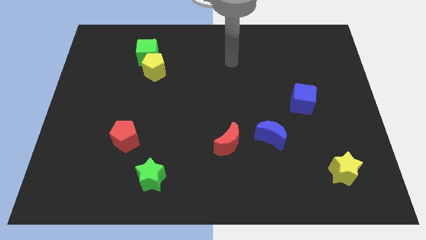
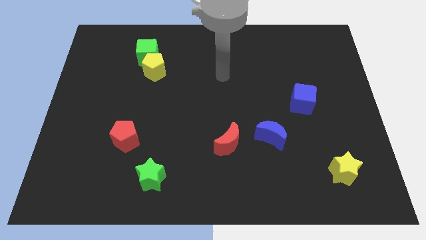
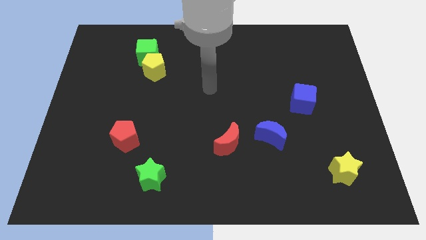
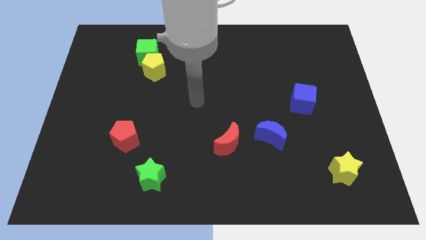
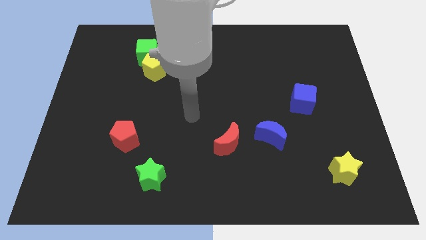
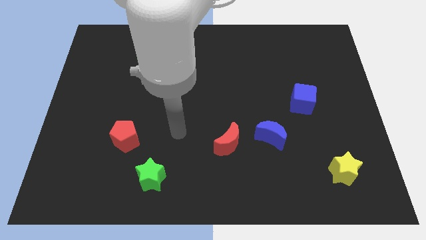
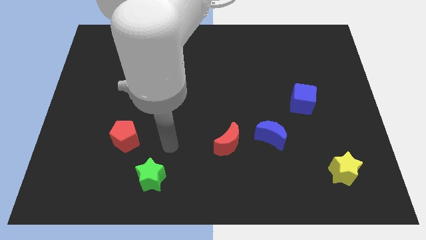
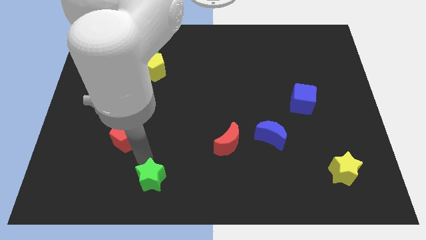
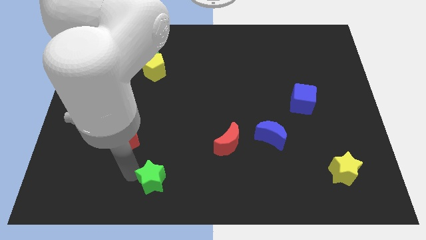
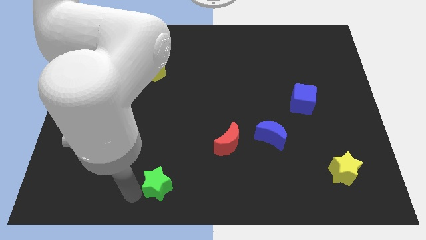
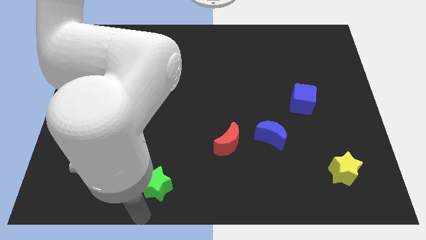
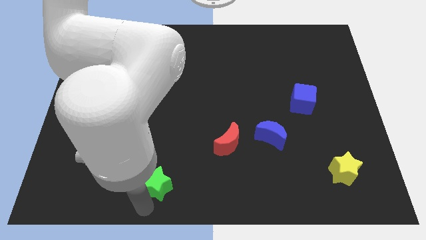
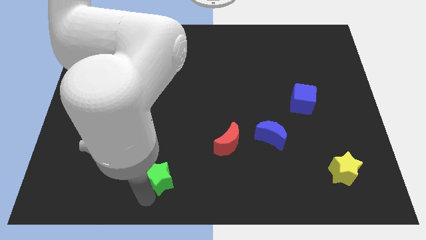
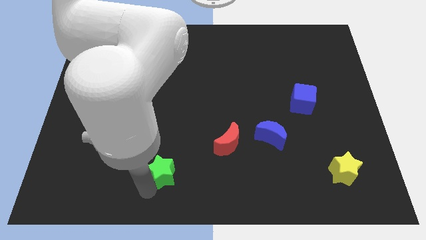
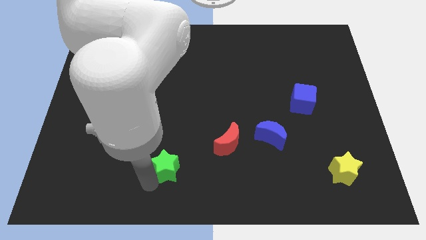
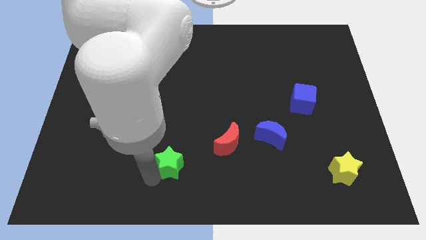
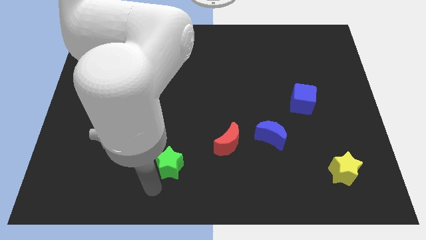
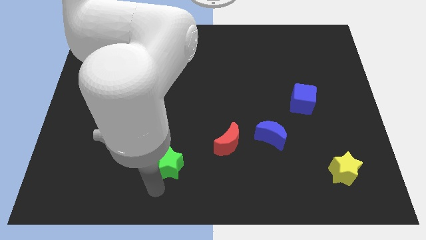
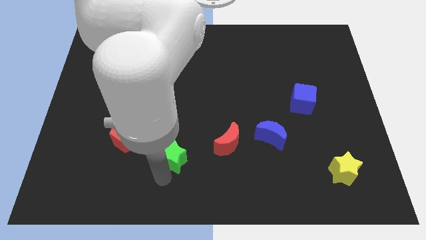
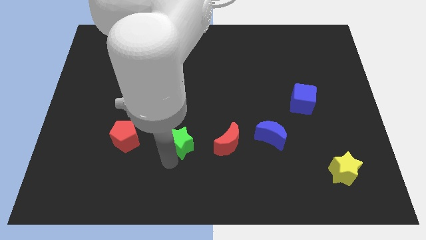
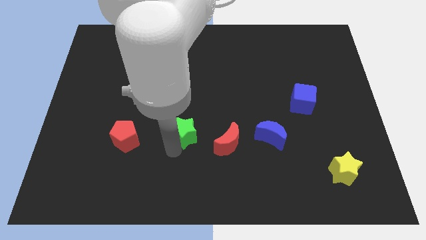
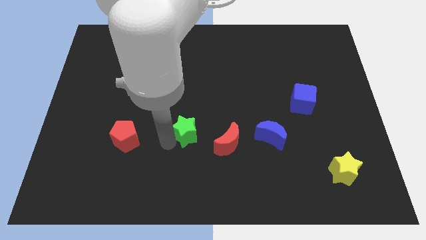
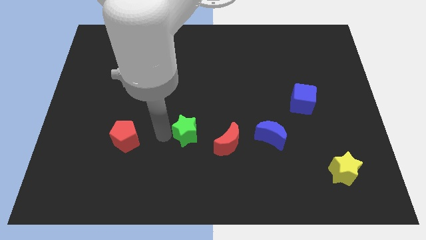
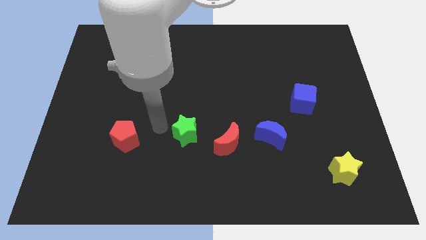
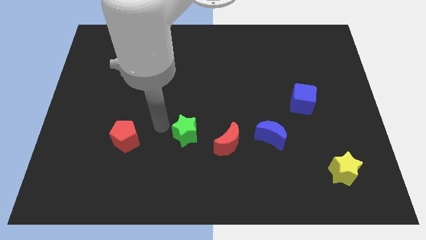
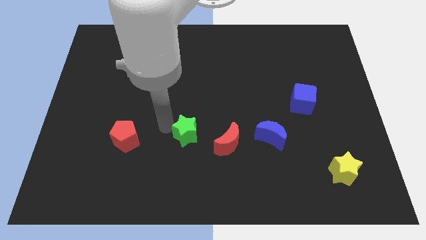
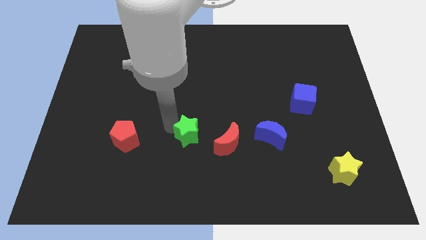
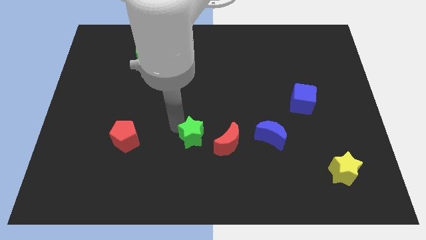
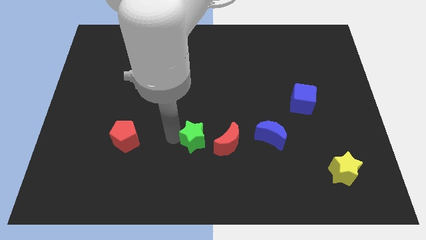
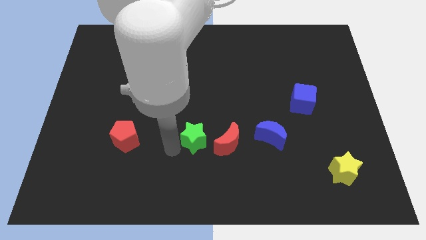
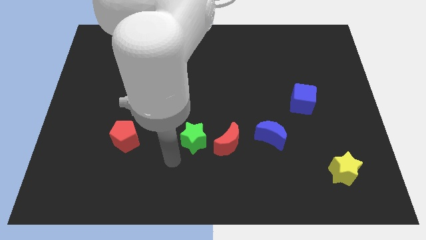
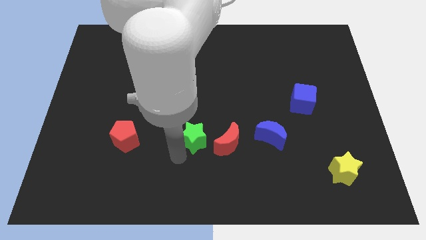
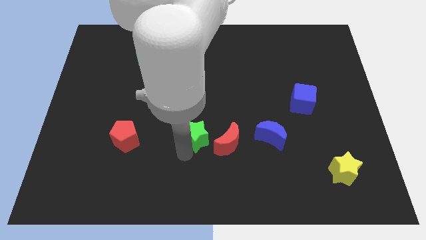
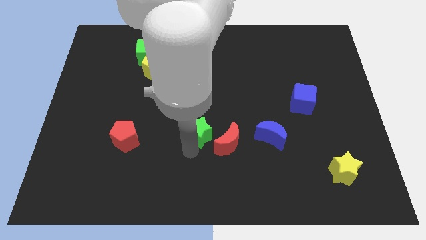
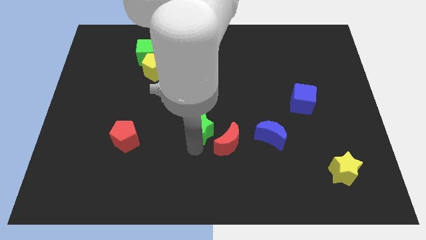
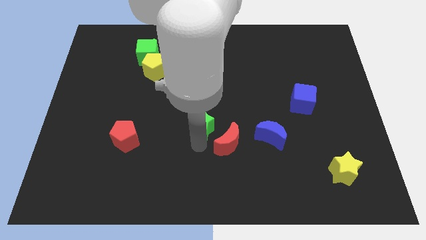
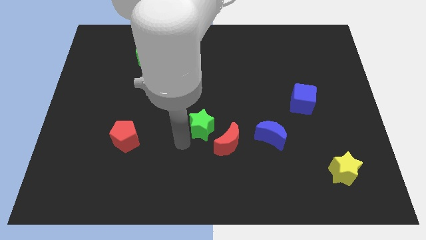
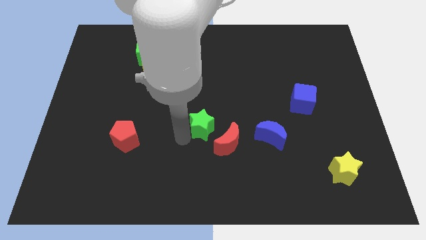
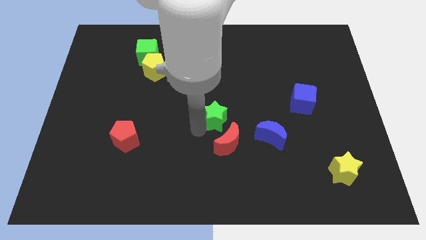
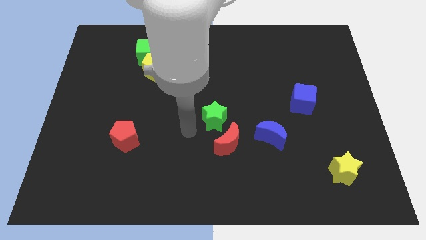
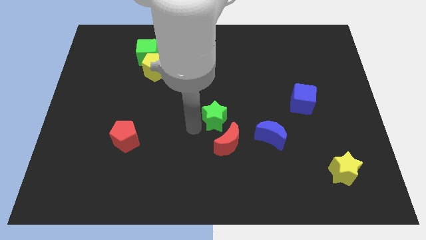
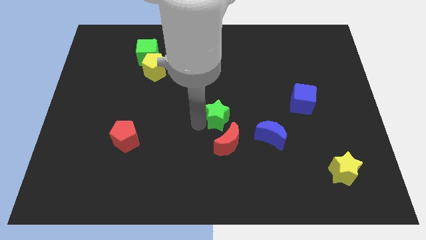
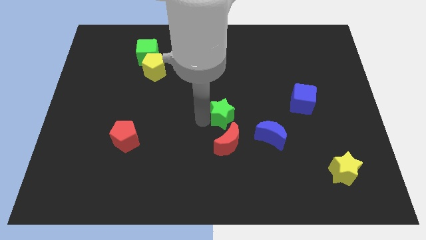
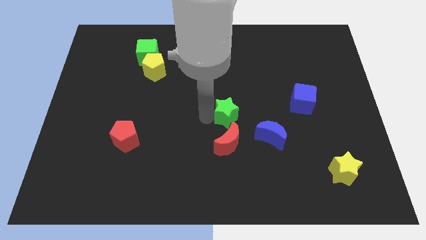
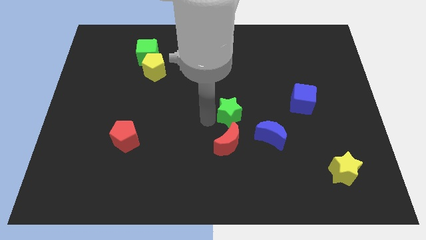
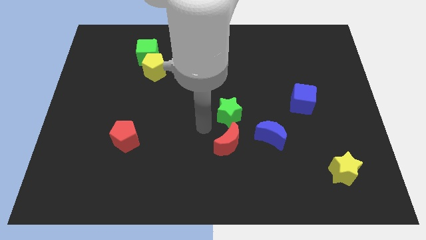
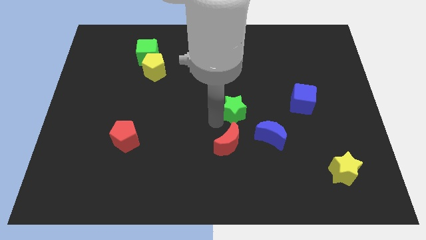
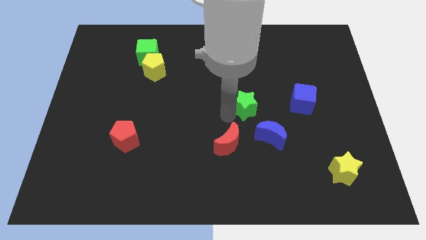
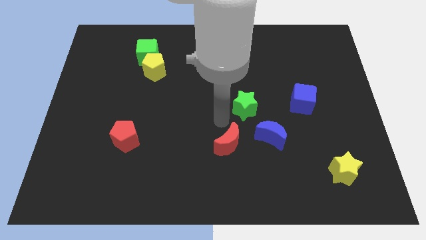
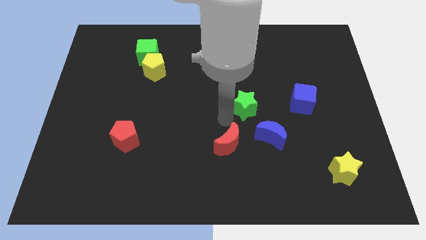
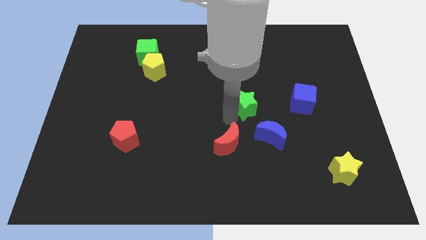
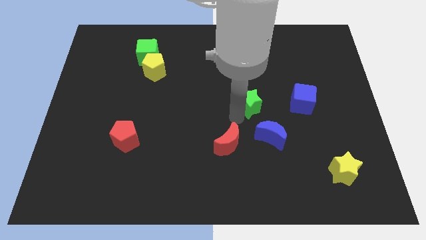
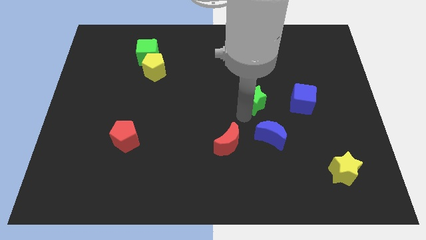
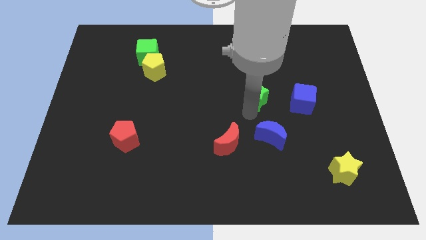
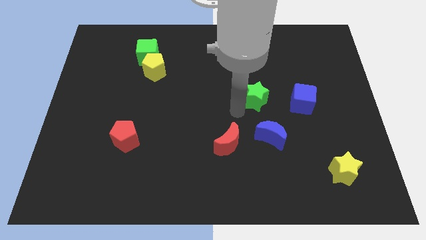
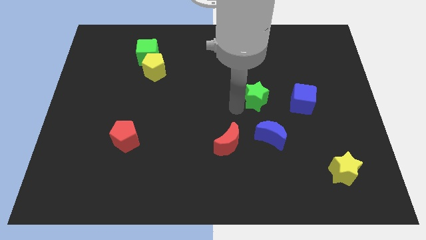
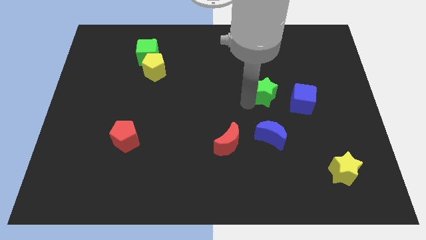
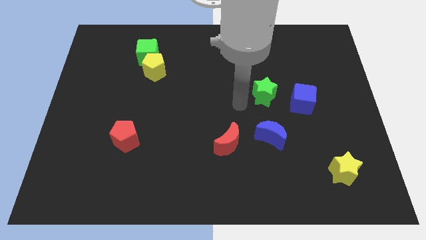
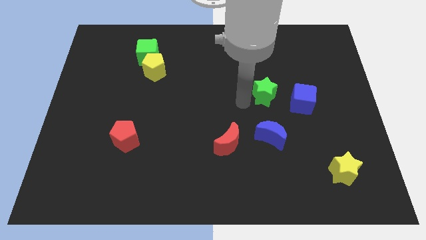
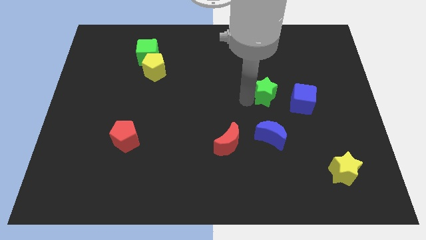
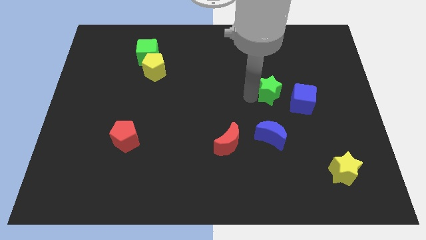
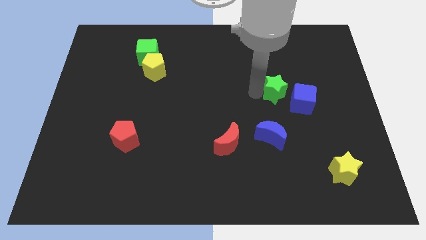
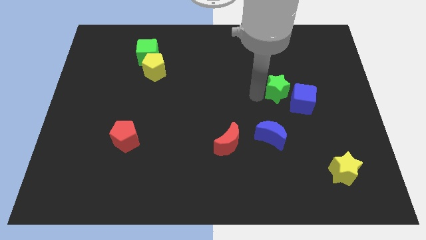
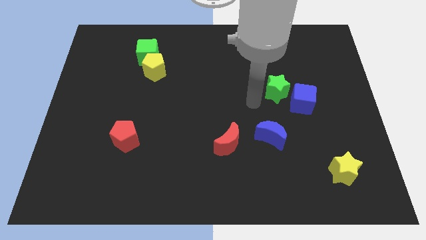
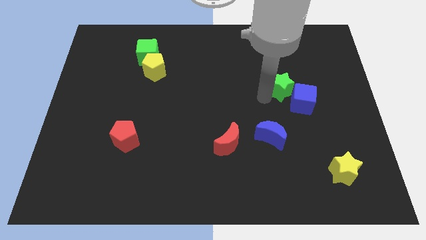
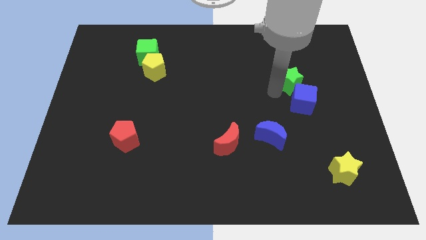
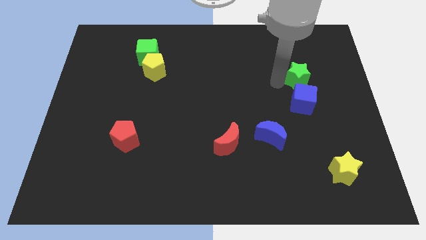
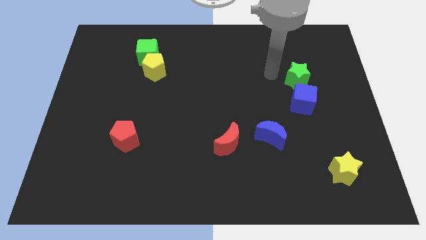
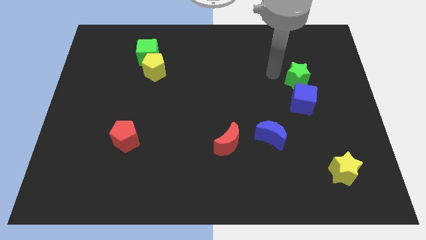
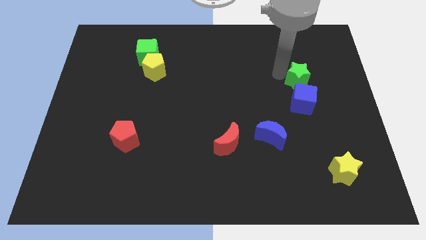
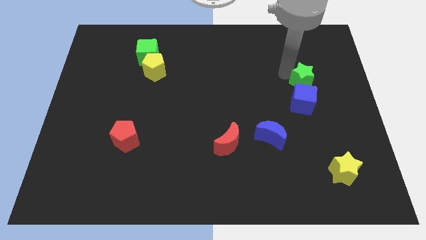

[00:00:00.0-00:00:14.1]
move the green star diagonally up and to the right of the blue cube
